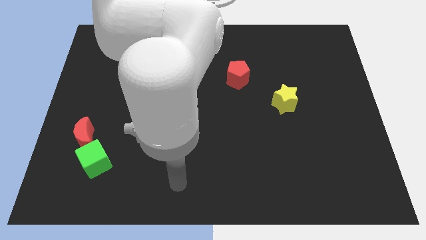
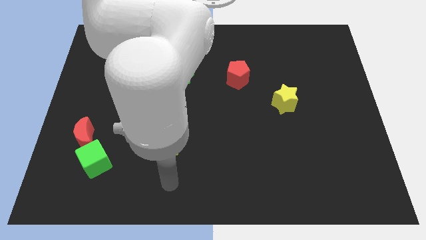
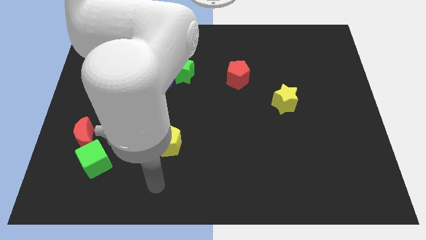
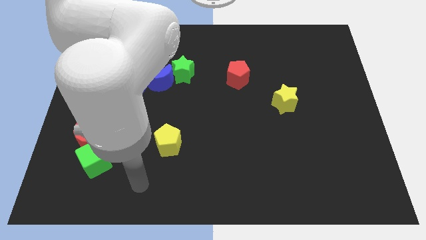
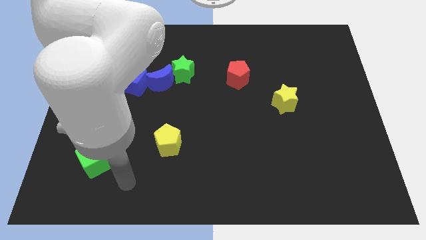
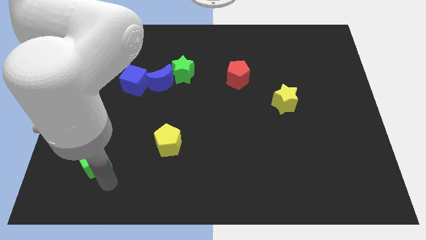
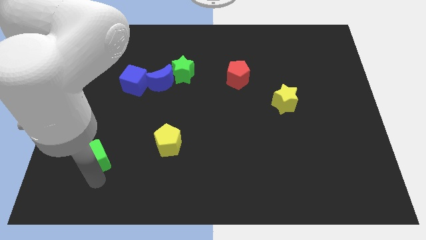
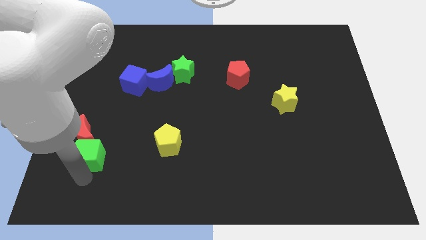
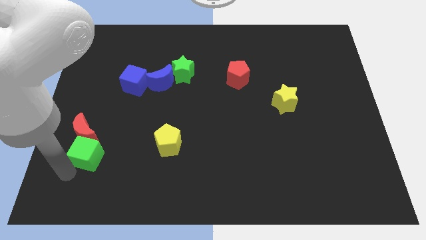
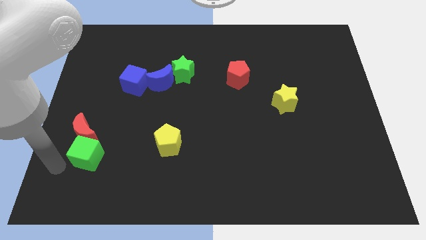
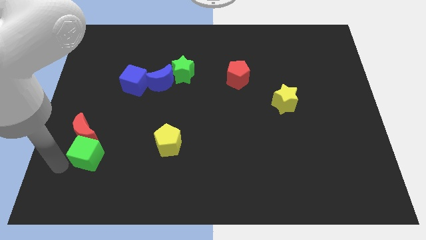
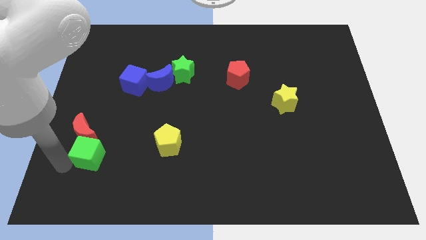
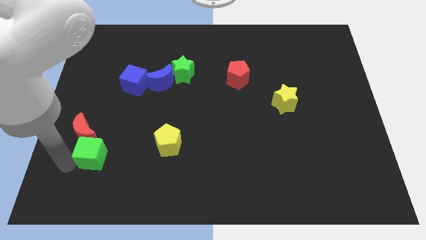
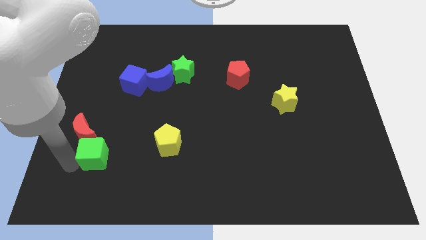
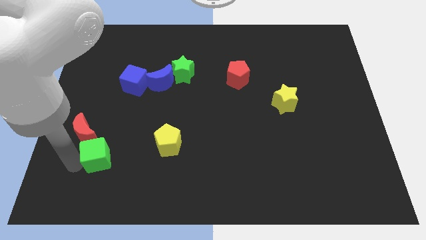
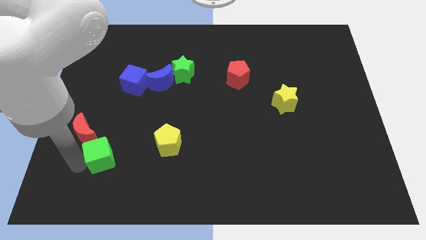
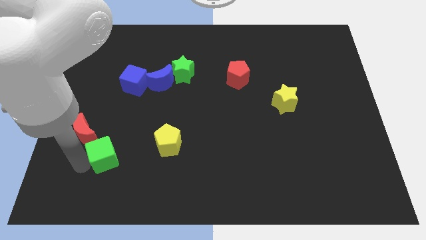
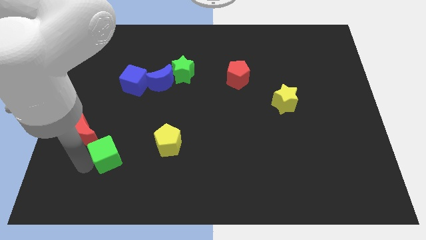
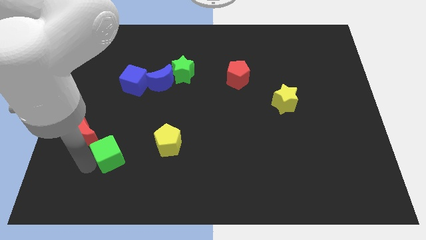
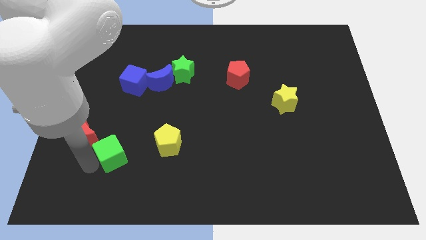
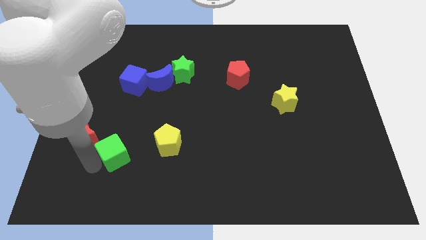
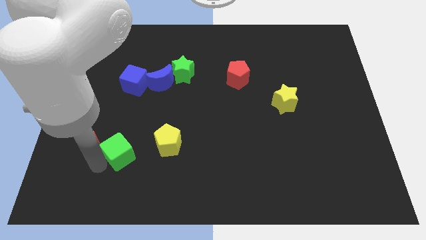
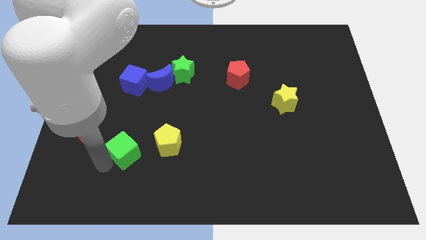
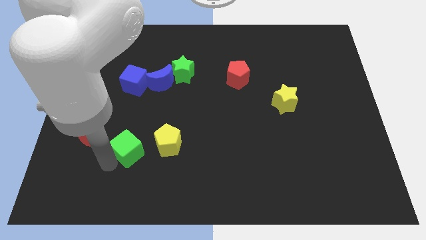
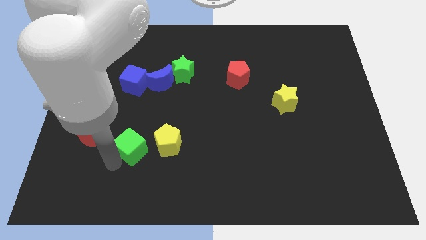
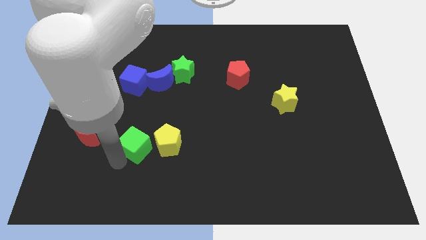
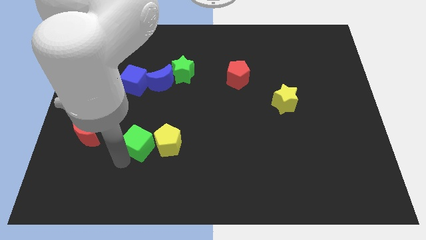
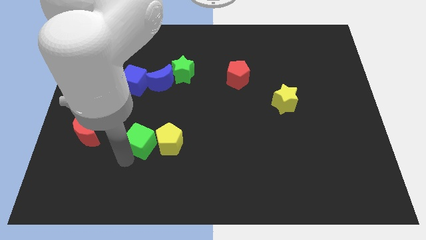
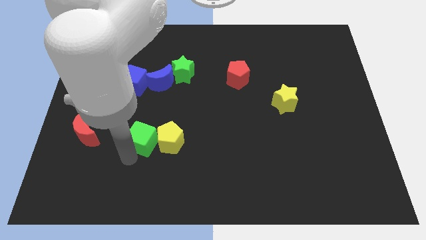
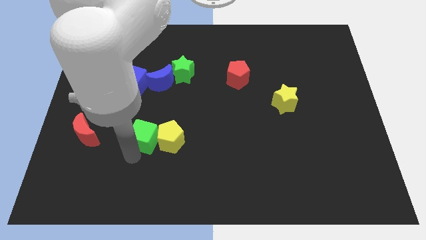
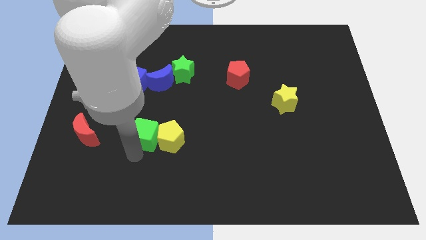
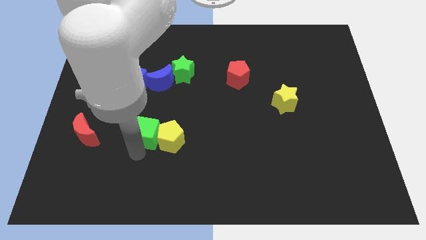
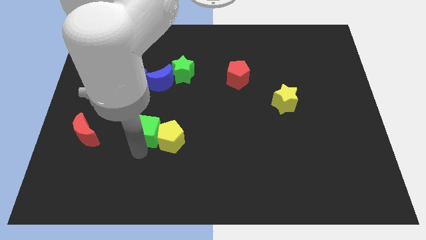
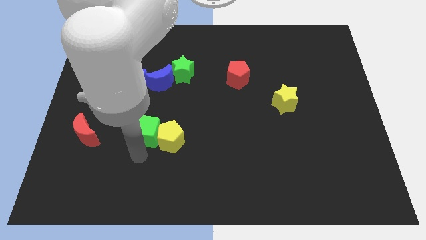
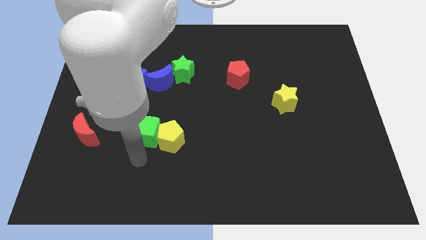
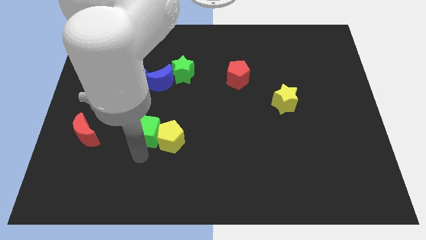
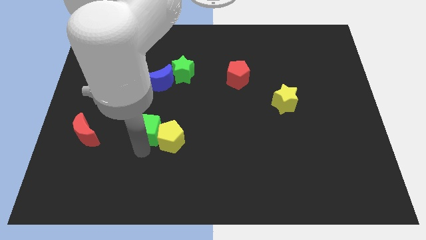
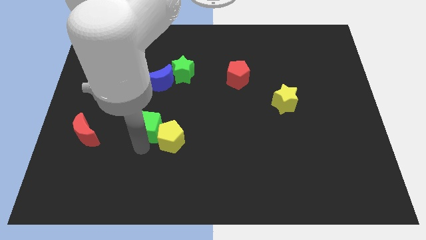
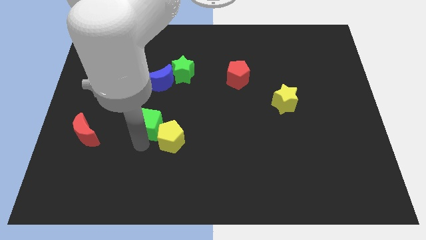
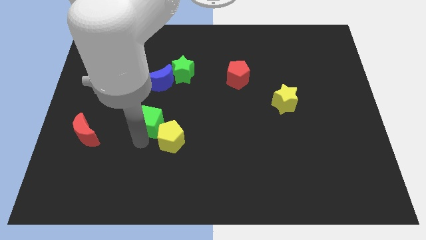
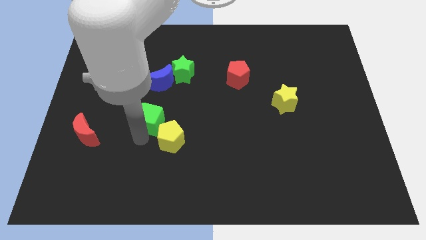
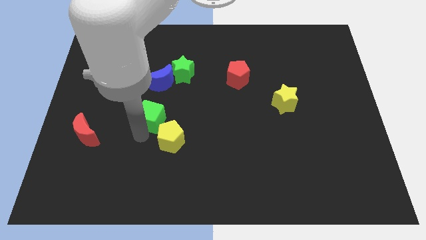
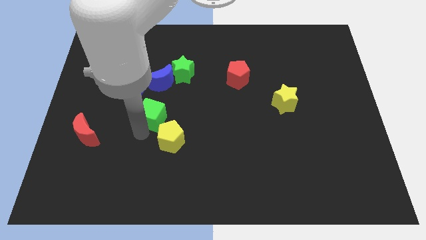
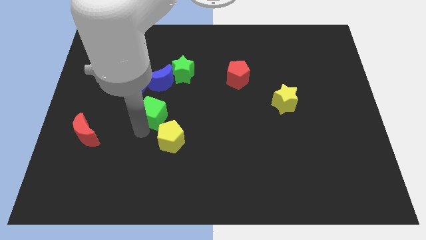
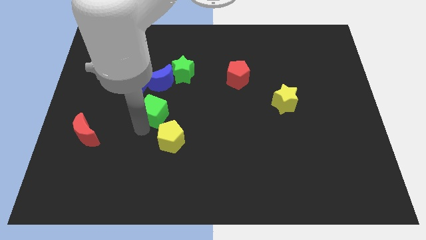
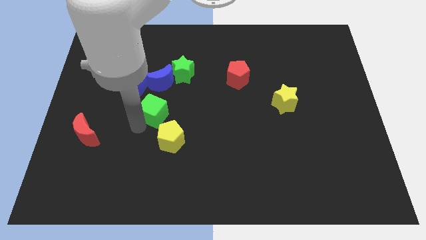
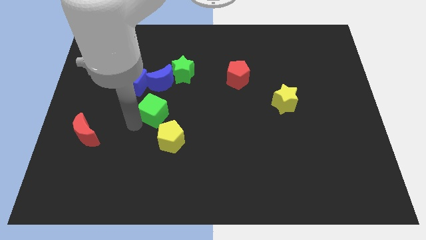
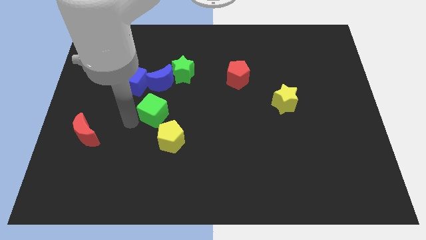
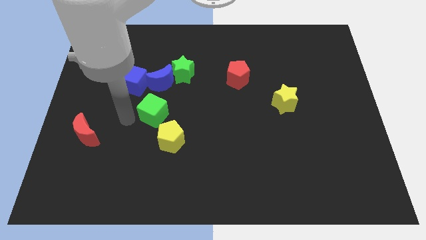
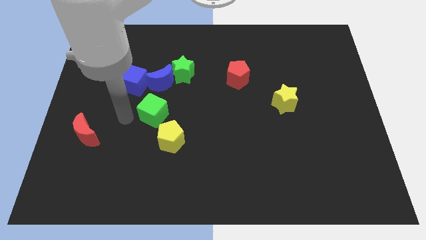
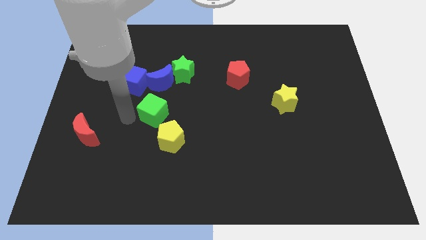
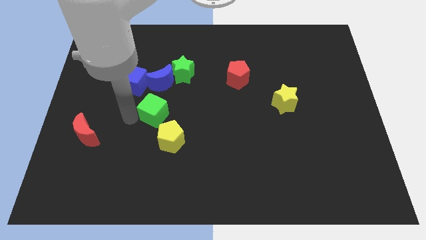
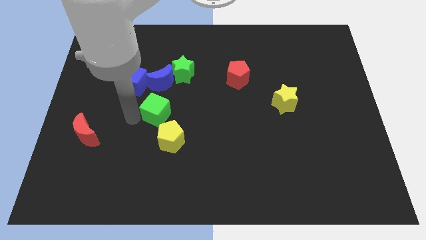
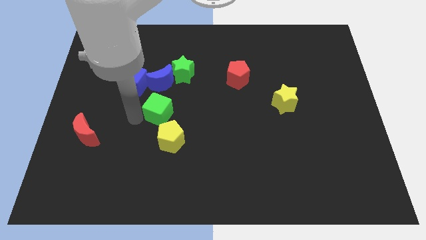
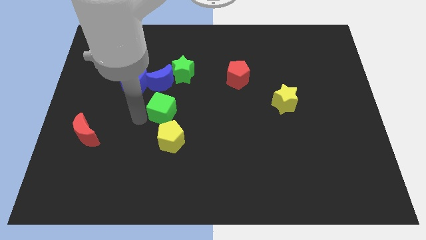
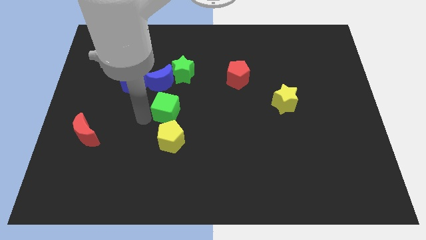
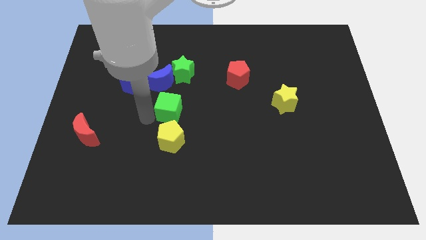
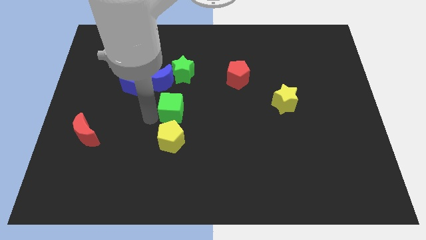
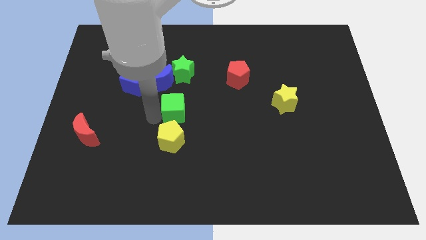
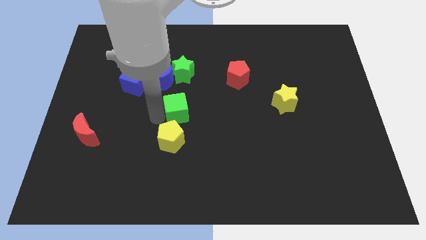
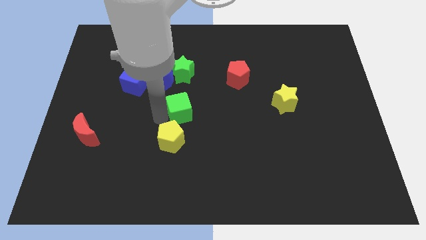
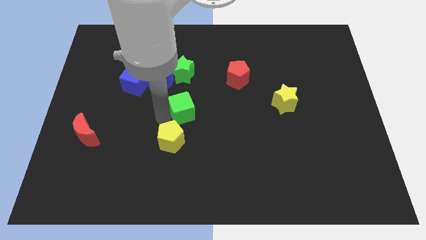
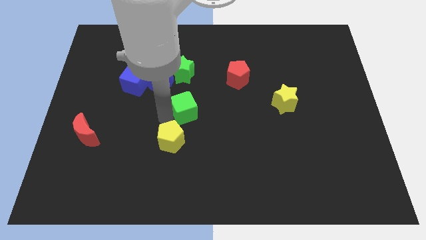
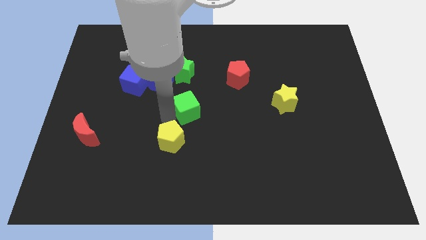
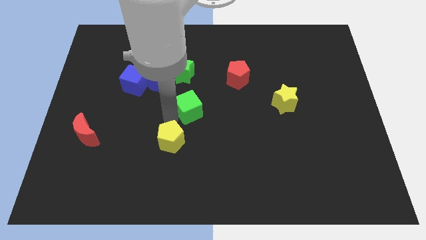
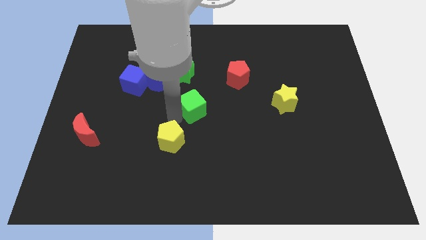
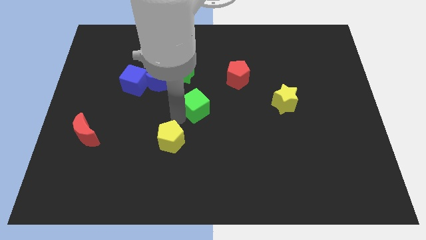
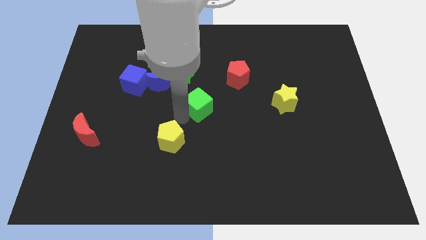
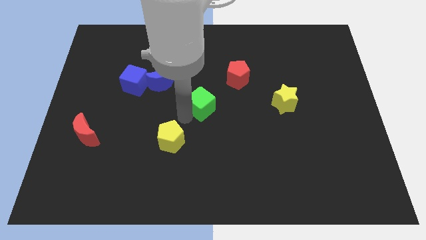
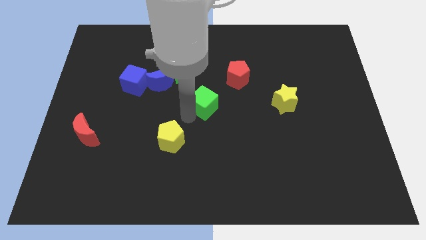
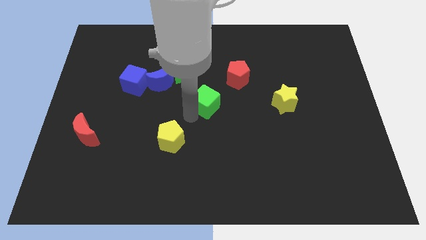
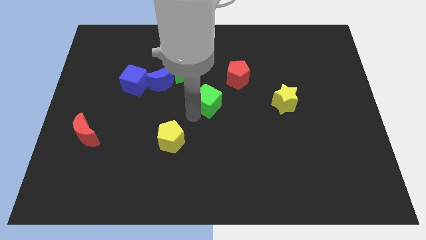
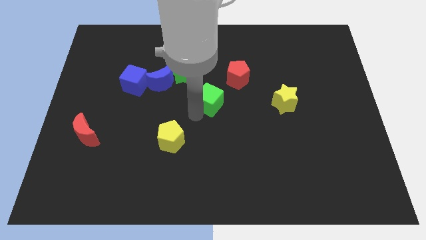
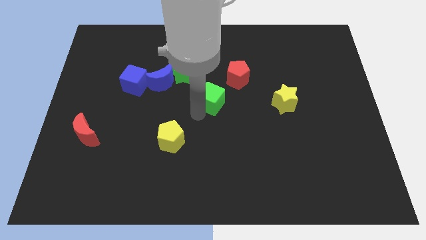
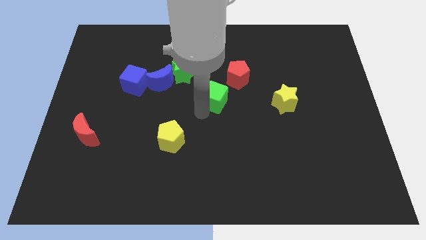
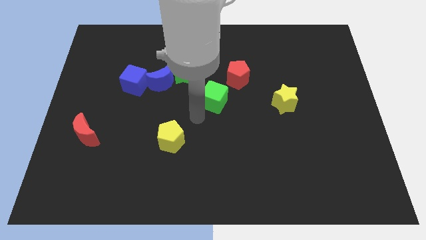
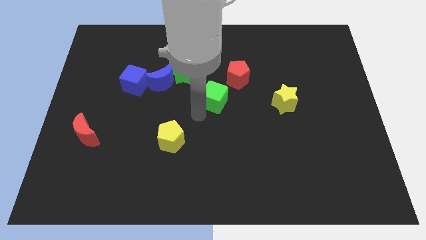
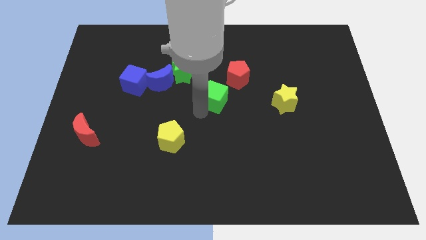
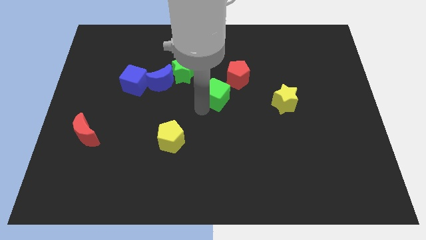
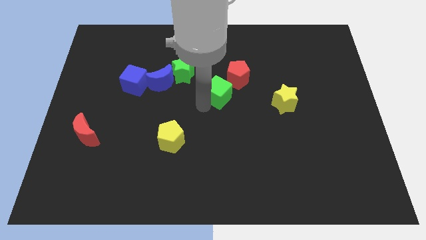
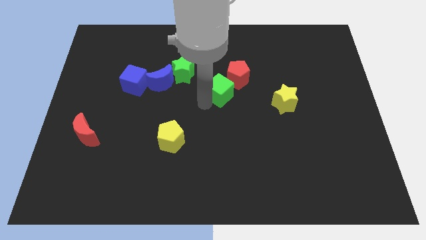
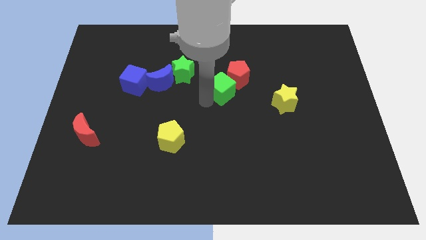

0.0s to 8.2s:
move the green cube close to the red pentagon
